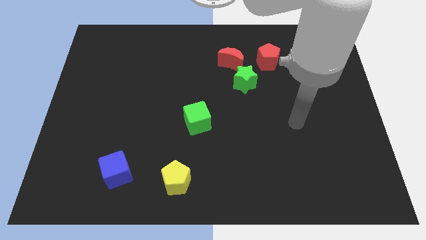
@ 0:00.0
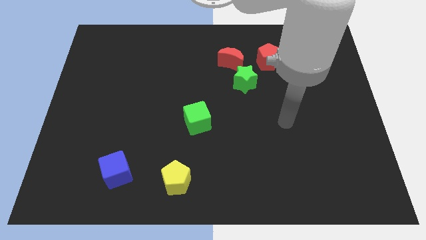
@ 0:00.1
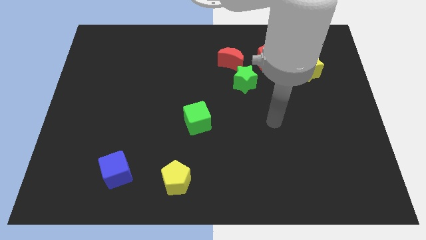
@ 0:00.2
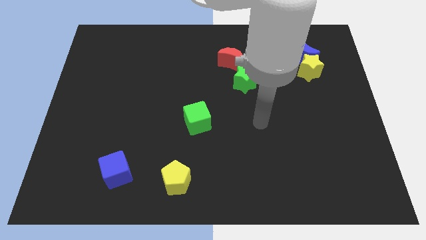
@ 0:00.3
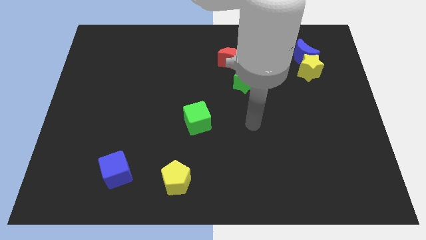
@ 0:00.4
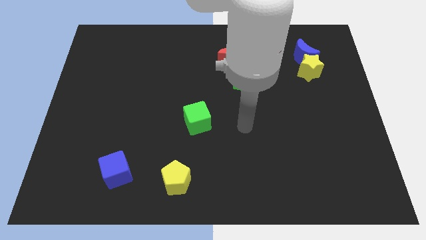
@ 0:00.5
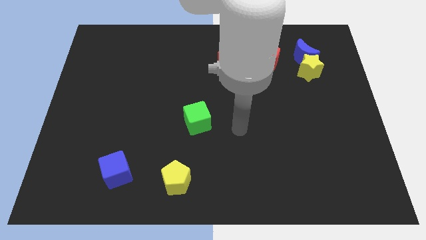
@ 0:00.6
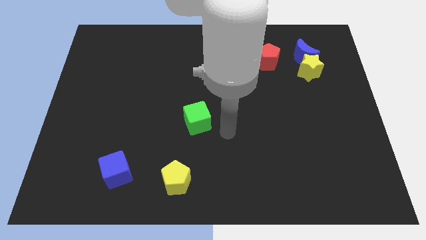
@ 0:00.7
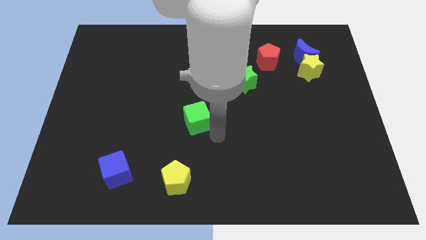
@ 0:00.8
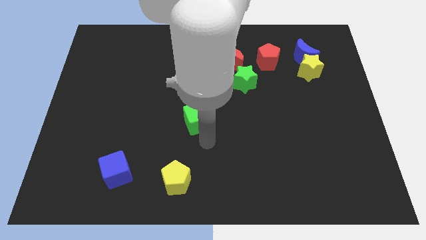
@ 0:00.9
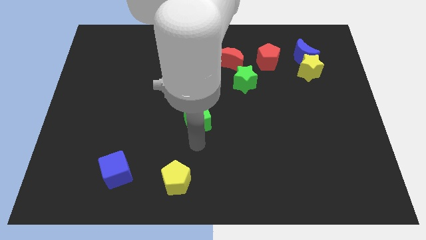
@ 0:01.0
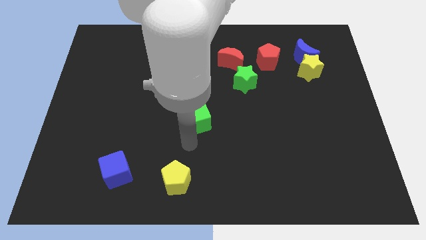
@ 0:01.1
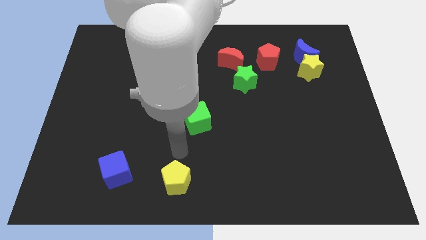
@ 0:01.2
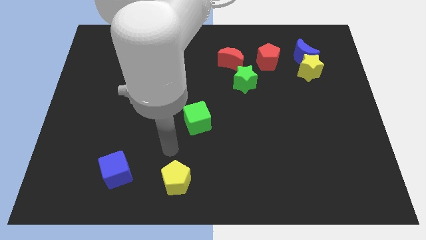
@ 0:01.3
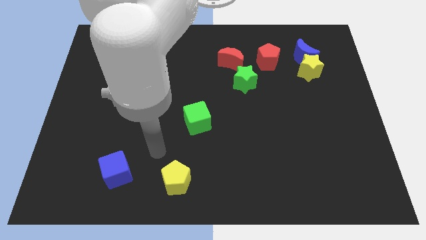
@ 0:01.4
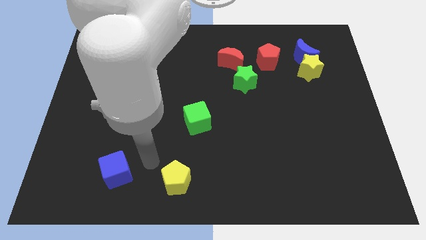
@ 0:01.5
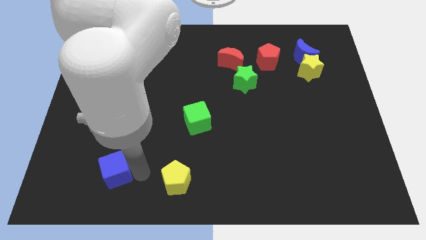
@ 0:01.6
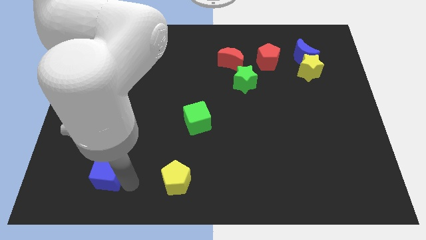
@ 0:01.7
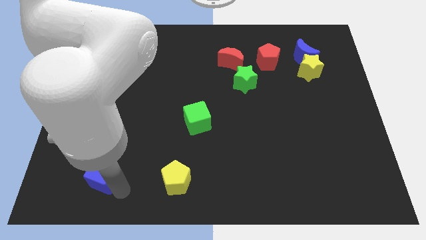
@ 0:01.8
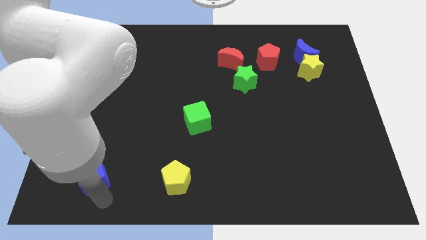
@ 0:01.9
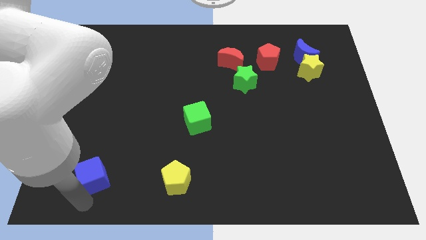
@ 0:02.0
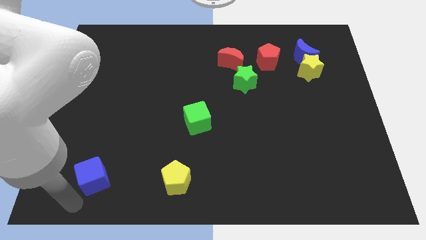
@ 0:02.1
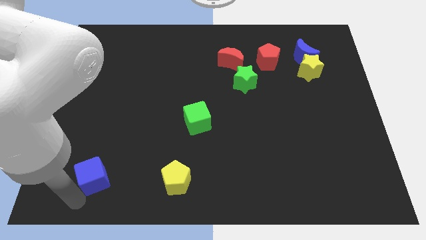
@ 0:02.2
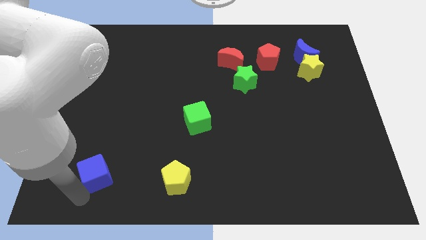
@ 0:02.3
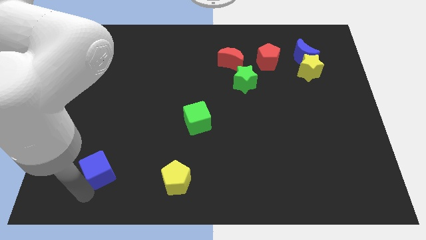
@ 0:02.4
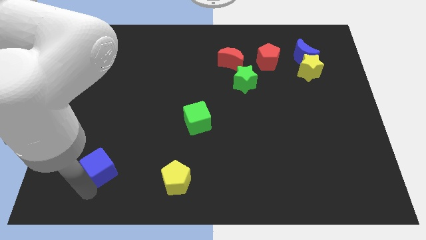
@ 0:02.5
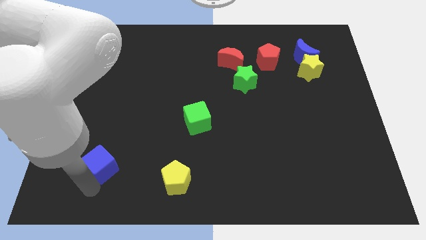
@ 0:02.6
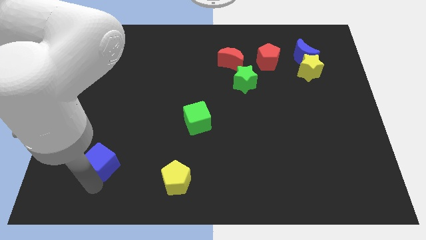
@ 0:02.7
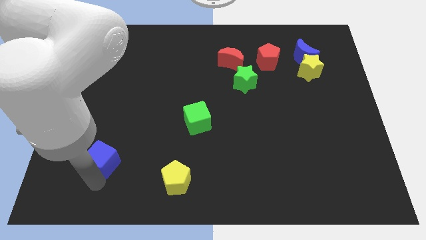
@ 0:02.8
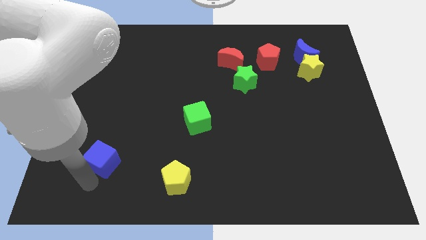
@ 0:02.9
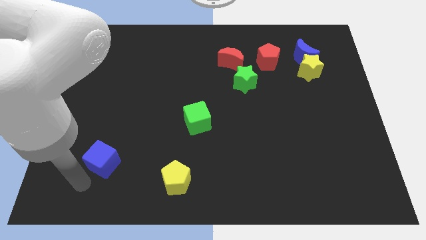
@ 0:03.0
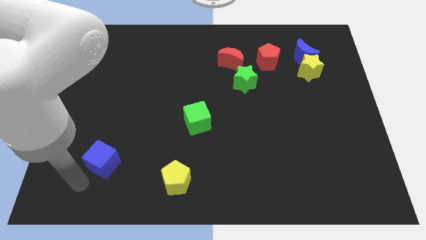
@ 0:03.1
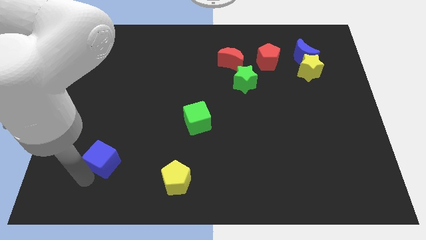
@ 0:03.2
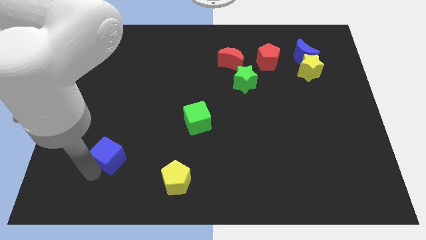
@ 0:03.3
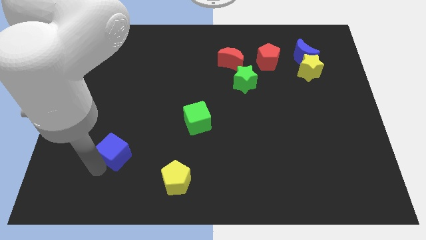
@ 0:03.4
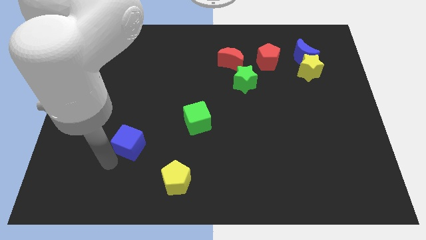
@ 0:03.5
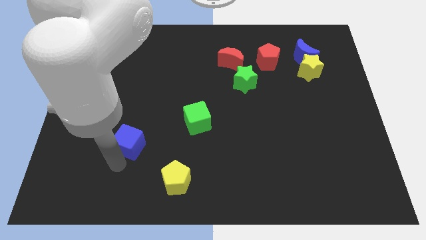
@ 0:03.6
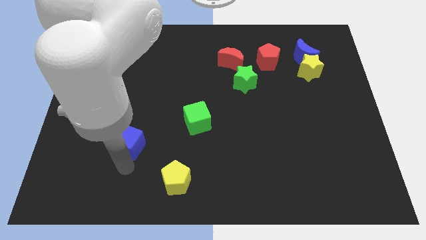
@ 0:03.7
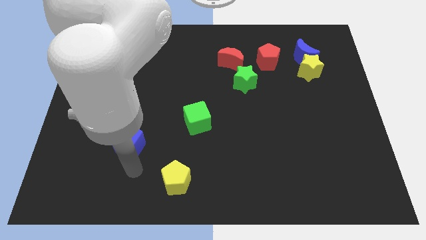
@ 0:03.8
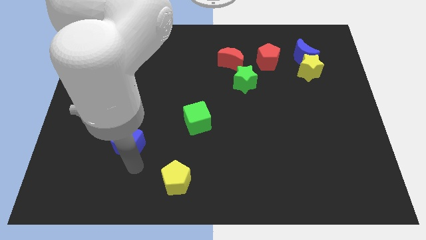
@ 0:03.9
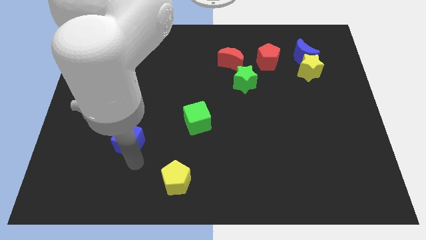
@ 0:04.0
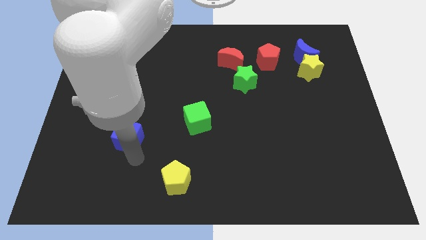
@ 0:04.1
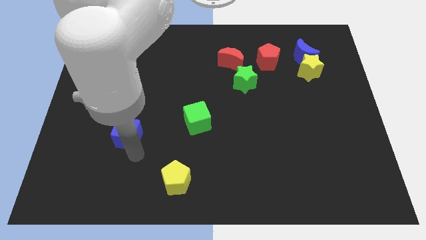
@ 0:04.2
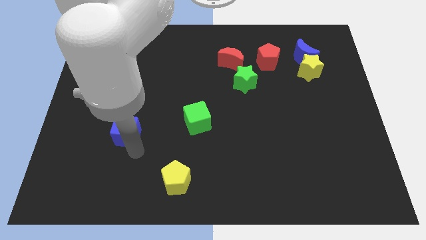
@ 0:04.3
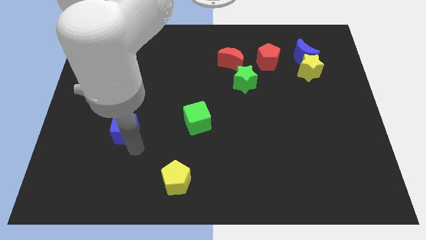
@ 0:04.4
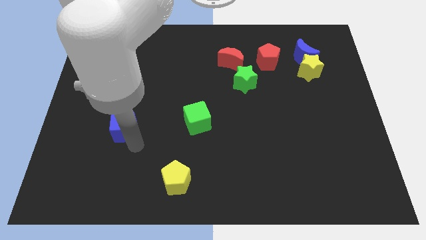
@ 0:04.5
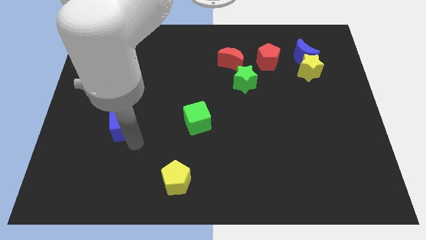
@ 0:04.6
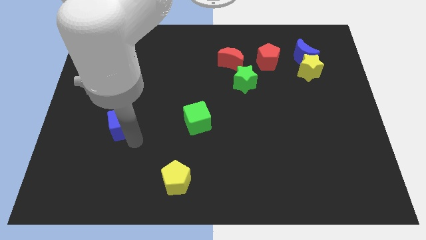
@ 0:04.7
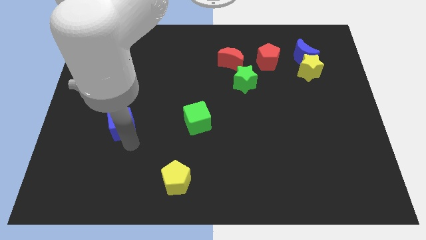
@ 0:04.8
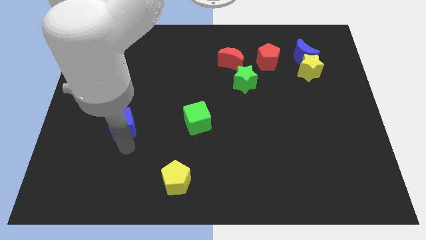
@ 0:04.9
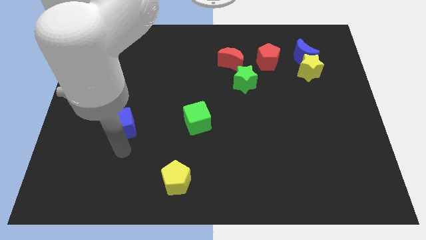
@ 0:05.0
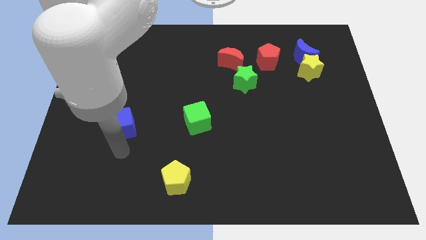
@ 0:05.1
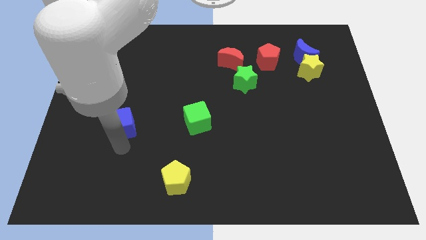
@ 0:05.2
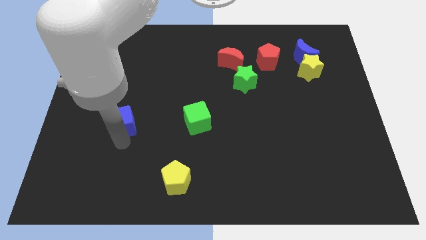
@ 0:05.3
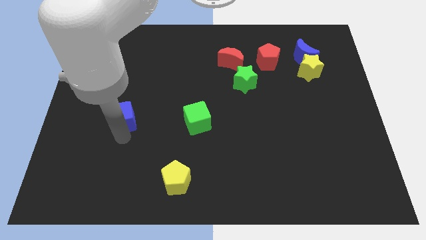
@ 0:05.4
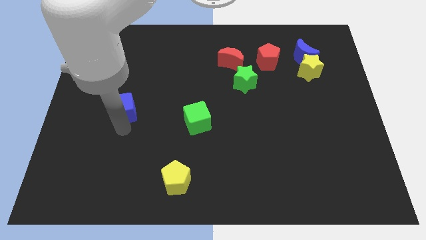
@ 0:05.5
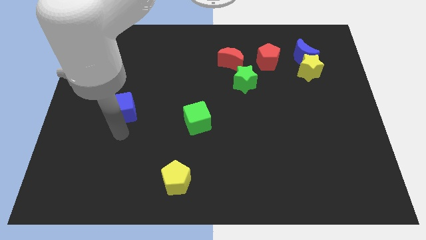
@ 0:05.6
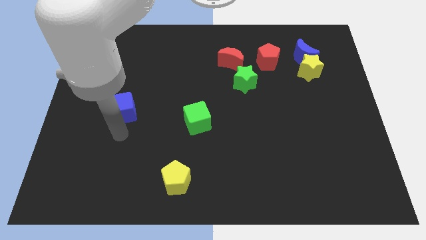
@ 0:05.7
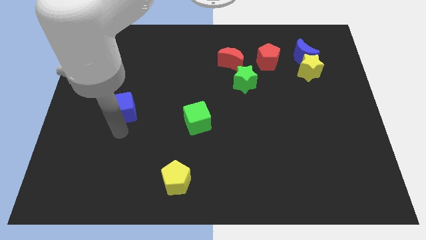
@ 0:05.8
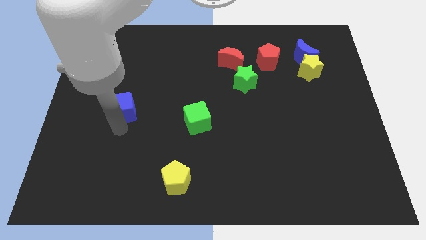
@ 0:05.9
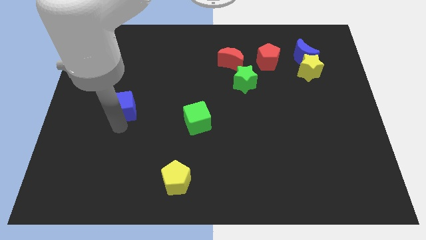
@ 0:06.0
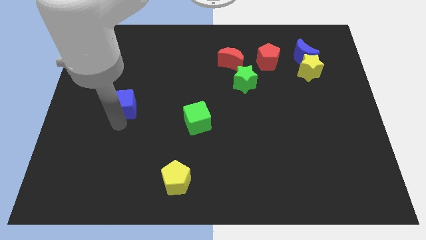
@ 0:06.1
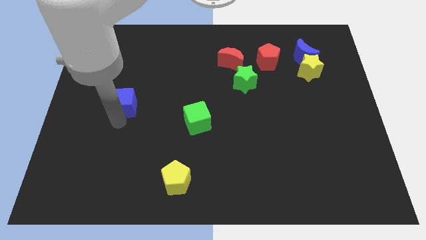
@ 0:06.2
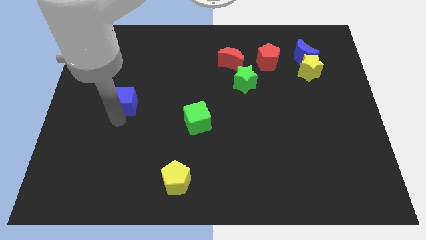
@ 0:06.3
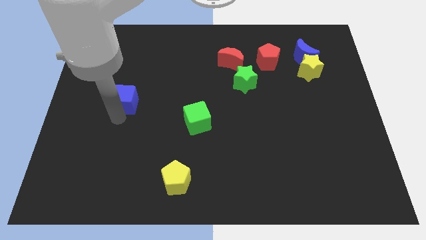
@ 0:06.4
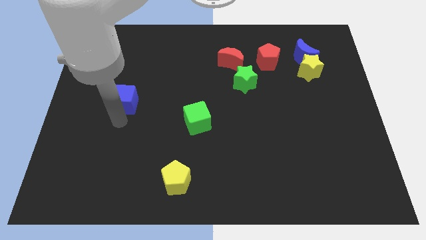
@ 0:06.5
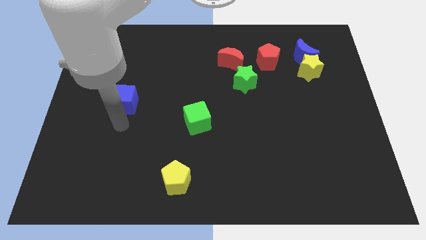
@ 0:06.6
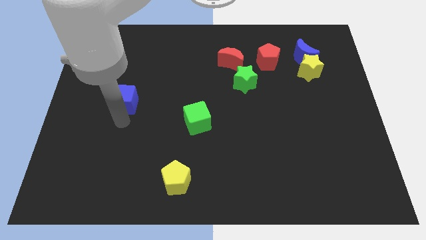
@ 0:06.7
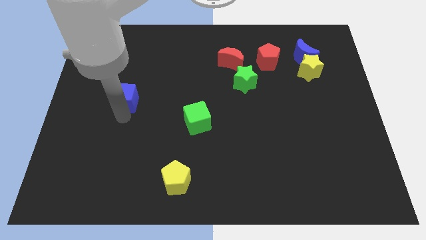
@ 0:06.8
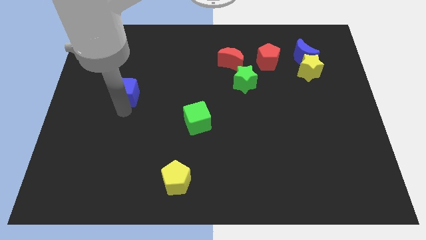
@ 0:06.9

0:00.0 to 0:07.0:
push the blue cube upwards

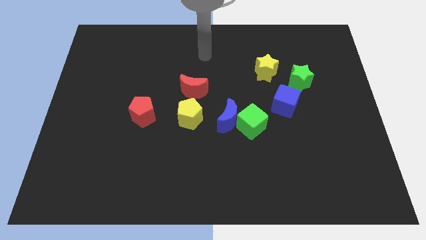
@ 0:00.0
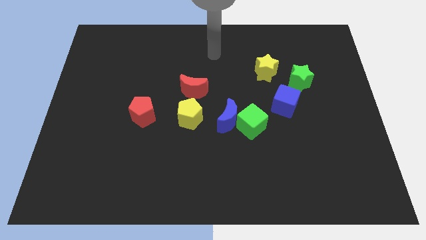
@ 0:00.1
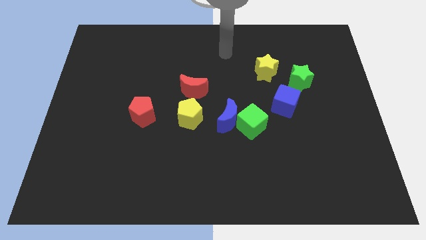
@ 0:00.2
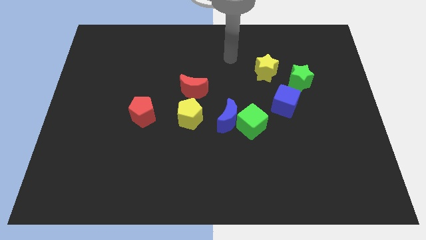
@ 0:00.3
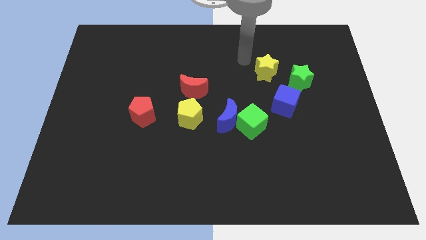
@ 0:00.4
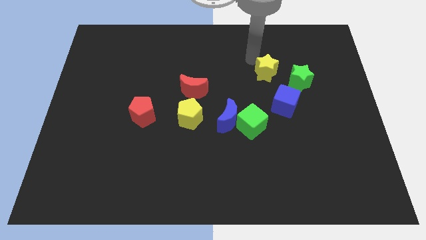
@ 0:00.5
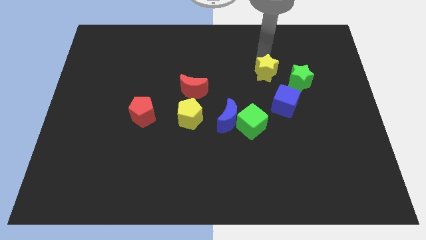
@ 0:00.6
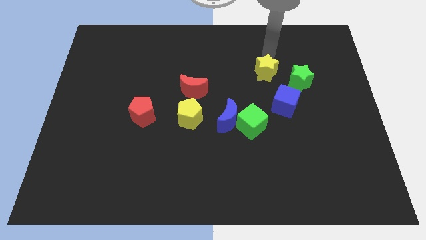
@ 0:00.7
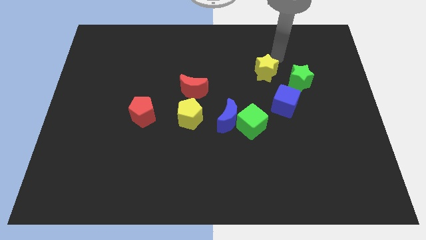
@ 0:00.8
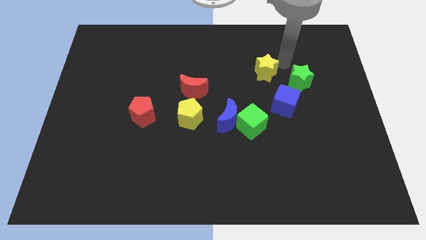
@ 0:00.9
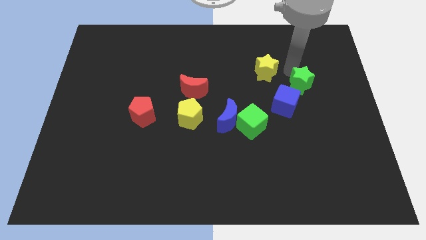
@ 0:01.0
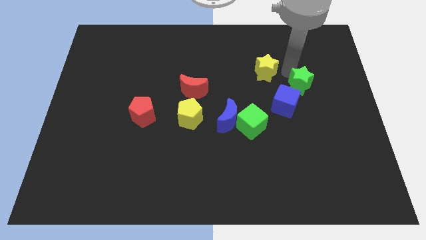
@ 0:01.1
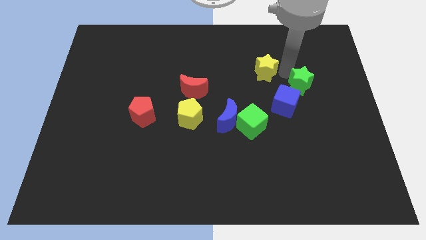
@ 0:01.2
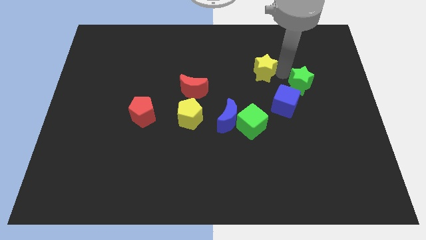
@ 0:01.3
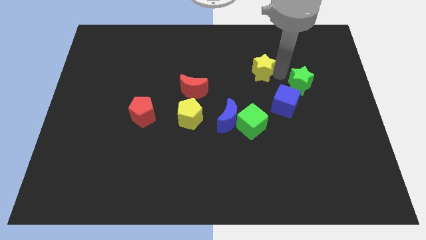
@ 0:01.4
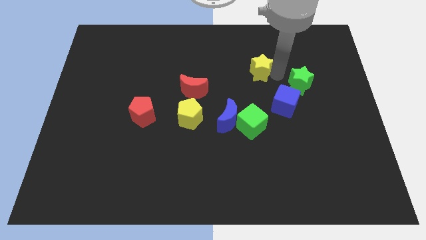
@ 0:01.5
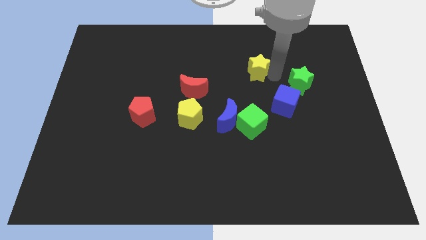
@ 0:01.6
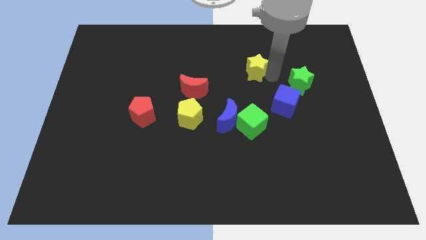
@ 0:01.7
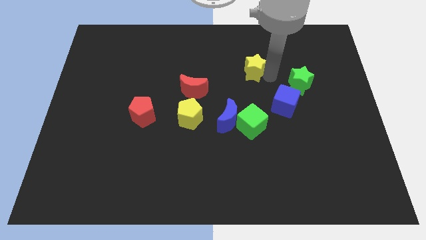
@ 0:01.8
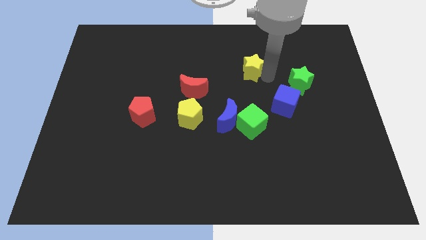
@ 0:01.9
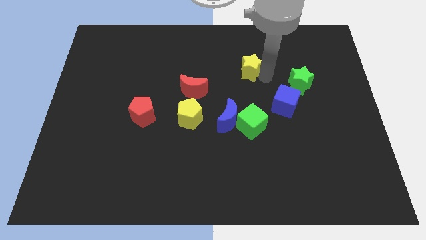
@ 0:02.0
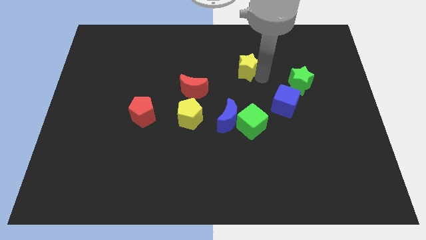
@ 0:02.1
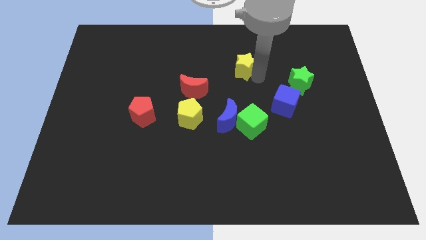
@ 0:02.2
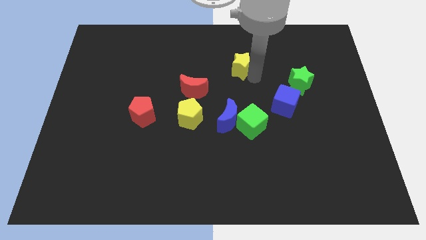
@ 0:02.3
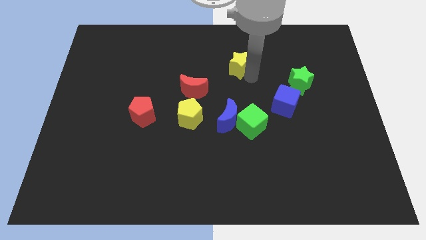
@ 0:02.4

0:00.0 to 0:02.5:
push the yellow star left a little bit
